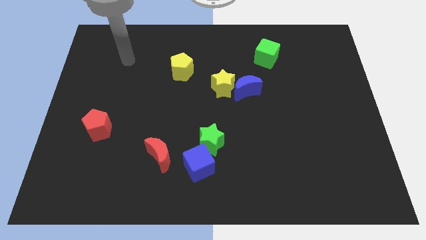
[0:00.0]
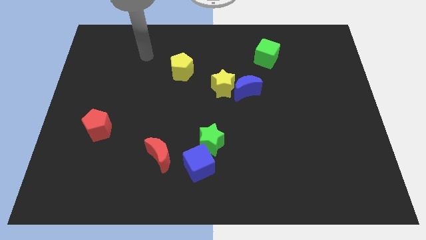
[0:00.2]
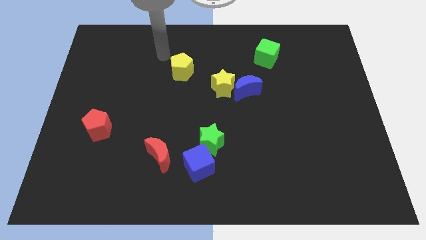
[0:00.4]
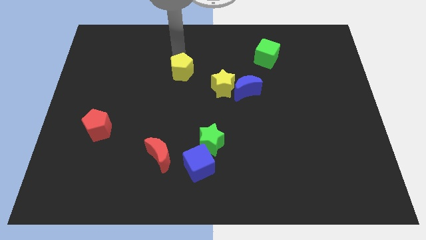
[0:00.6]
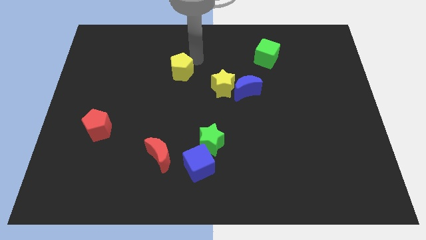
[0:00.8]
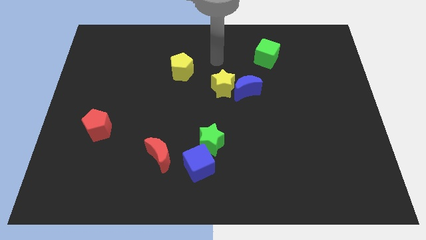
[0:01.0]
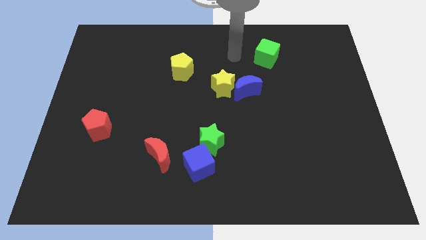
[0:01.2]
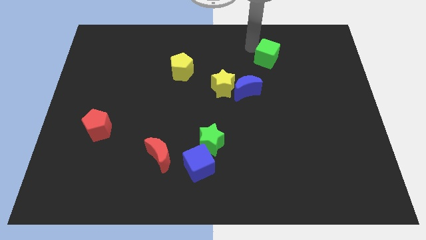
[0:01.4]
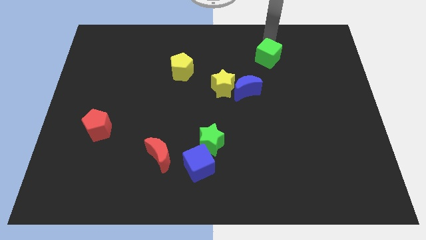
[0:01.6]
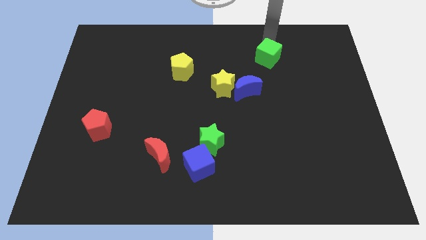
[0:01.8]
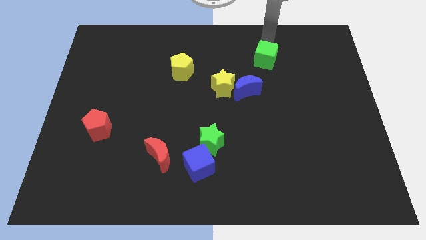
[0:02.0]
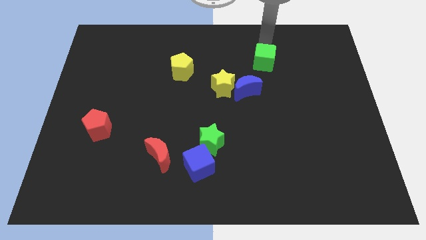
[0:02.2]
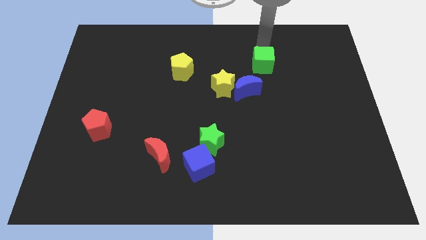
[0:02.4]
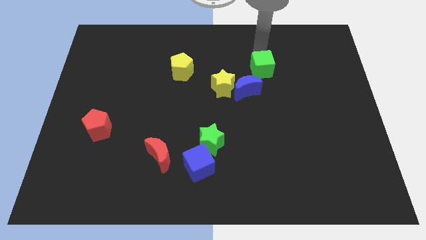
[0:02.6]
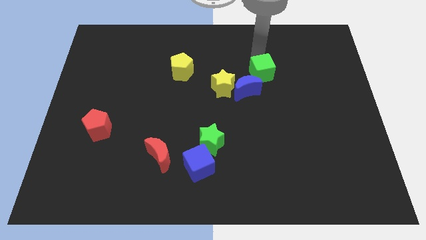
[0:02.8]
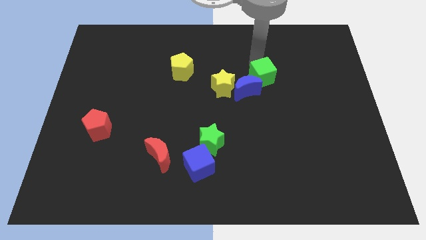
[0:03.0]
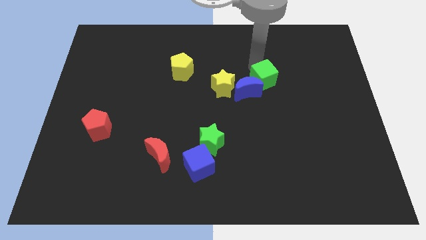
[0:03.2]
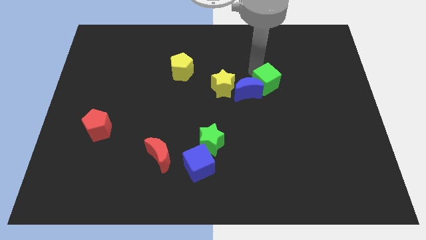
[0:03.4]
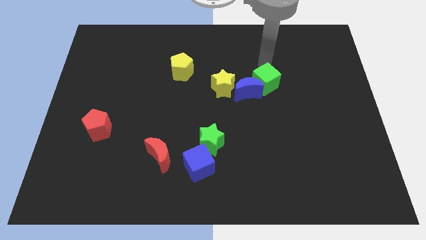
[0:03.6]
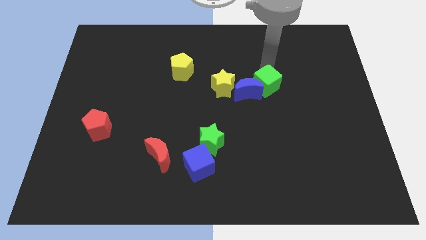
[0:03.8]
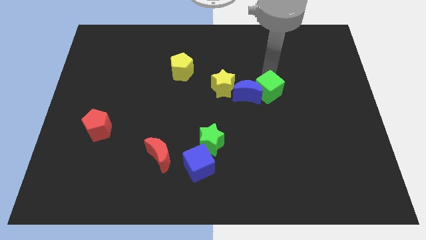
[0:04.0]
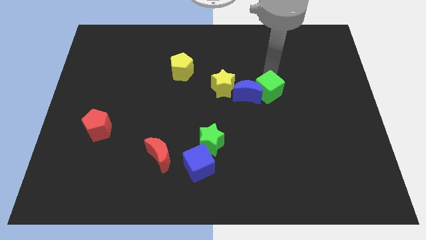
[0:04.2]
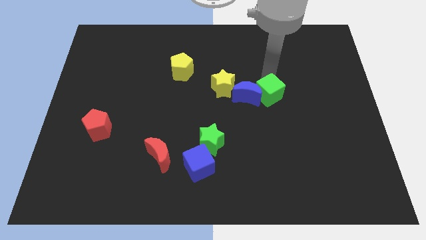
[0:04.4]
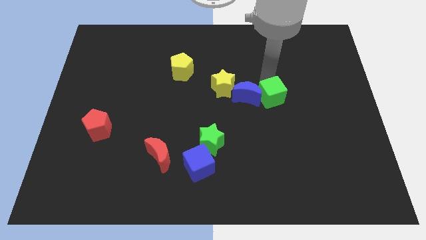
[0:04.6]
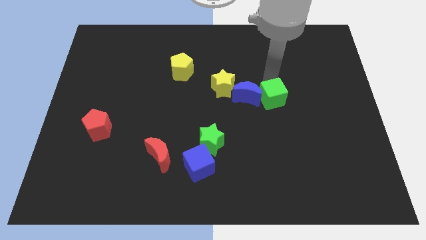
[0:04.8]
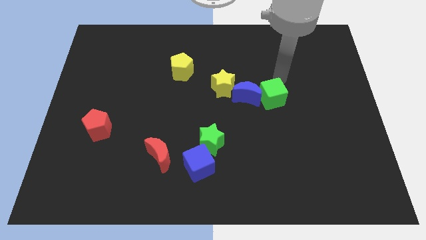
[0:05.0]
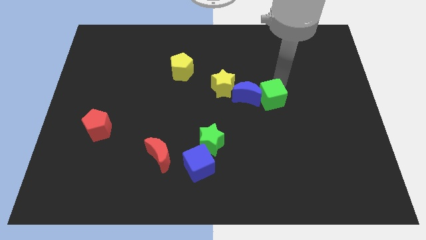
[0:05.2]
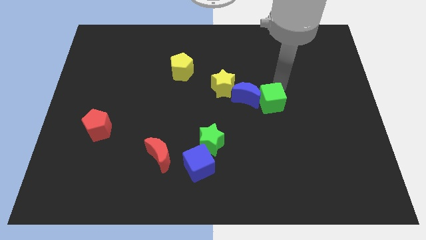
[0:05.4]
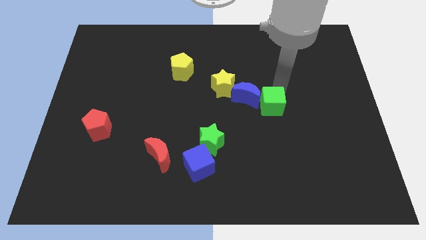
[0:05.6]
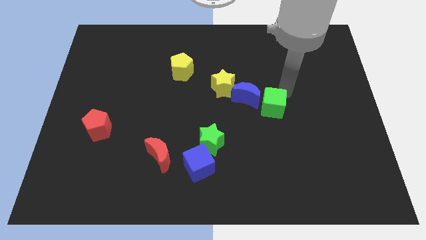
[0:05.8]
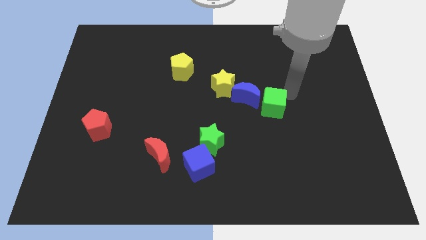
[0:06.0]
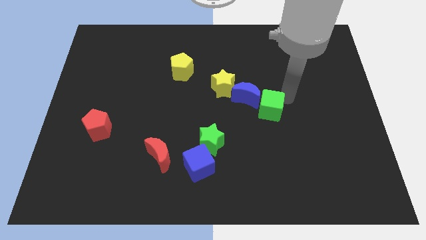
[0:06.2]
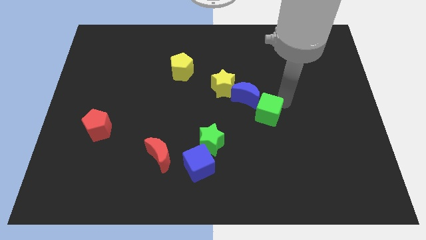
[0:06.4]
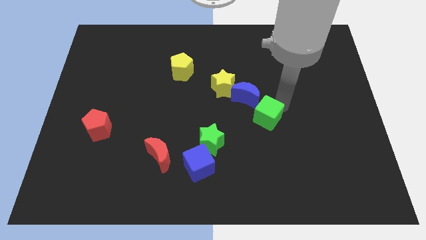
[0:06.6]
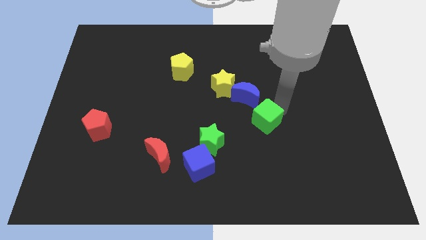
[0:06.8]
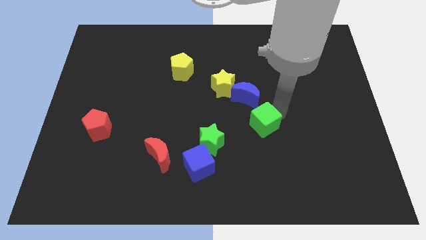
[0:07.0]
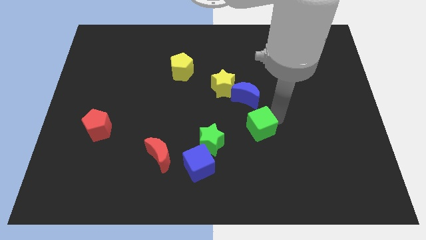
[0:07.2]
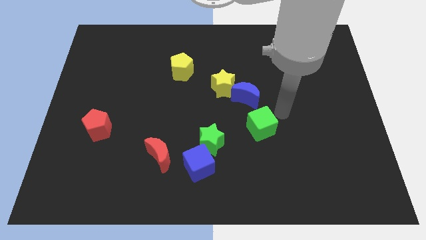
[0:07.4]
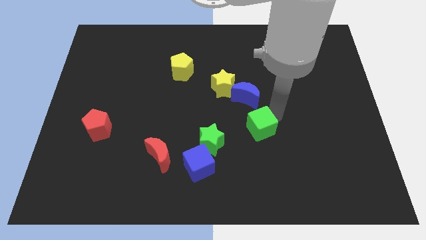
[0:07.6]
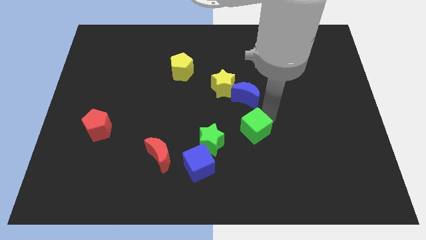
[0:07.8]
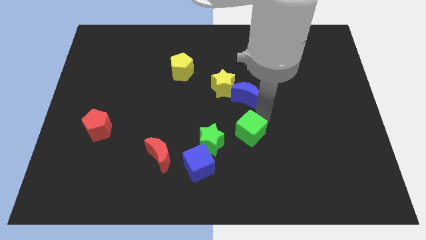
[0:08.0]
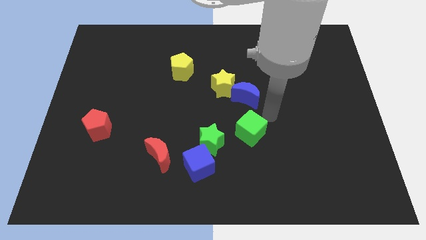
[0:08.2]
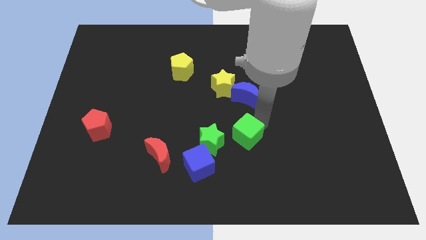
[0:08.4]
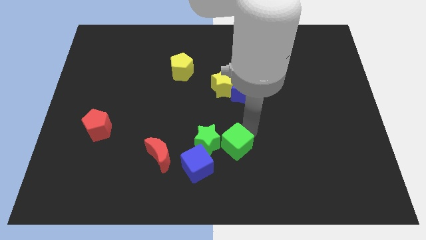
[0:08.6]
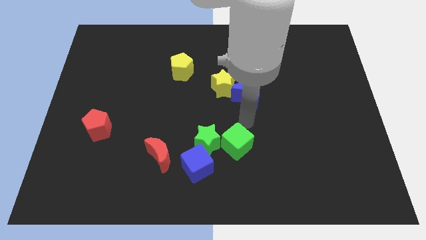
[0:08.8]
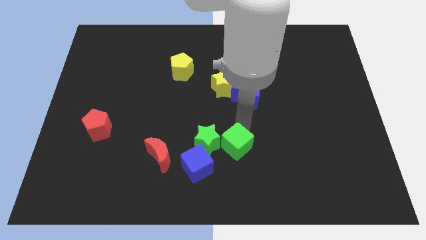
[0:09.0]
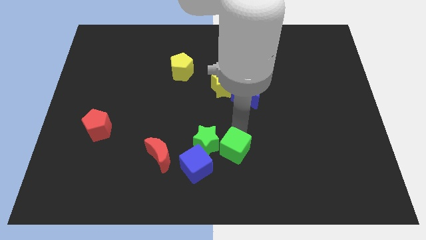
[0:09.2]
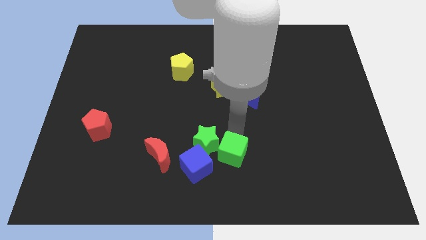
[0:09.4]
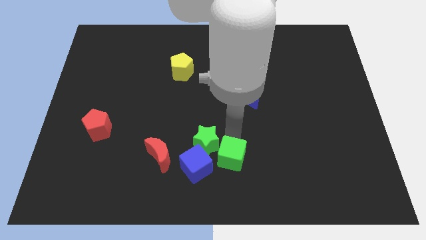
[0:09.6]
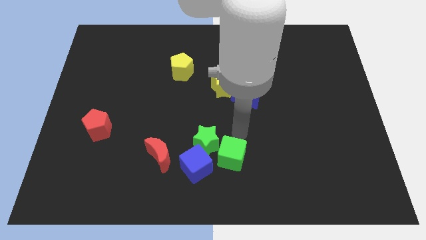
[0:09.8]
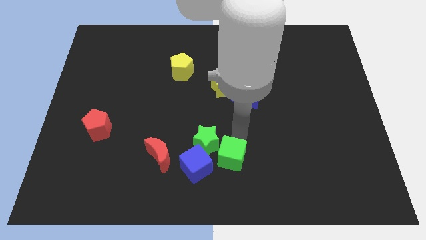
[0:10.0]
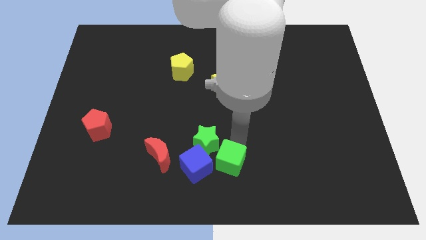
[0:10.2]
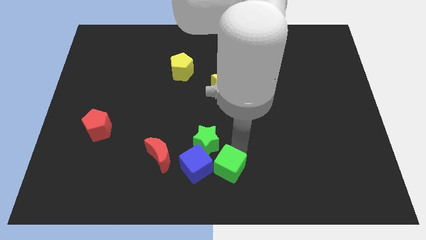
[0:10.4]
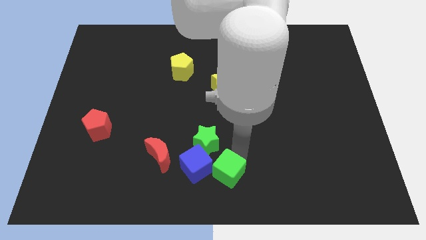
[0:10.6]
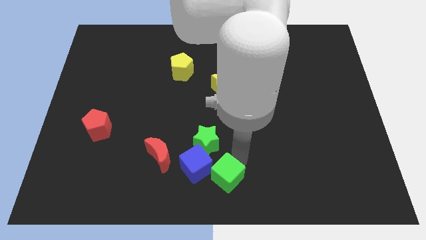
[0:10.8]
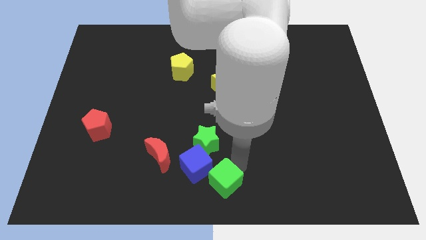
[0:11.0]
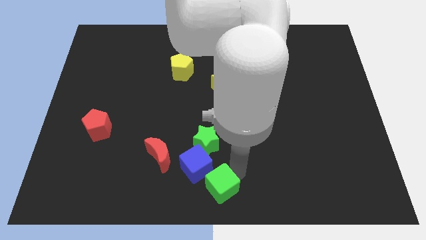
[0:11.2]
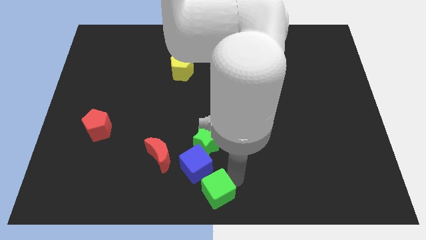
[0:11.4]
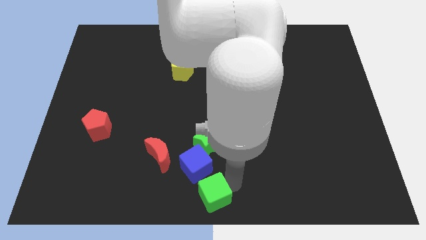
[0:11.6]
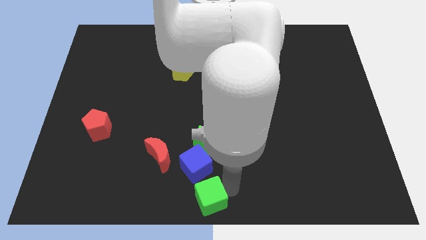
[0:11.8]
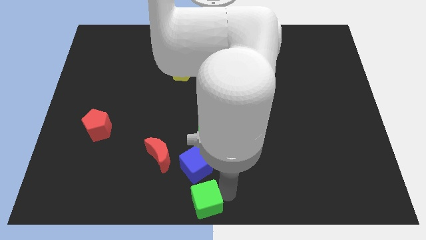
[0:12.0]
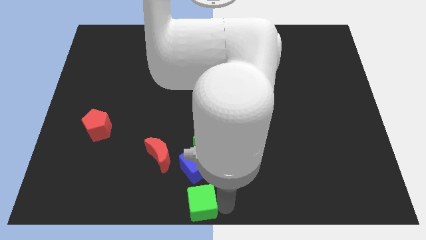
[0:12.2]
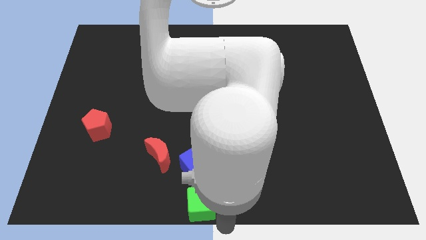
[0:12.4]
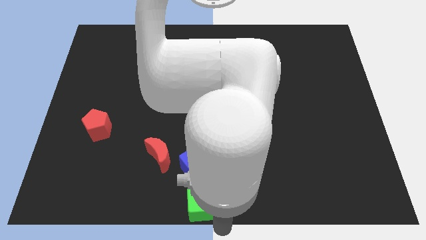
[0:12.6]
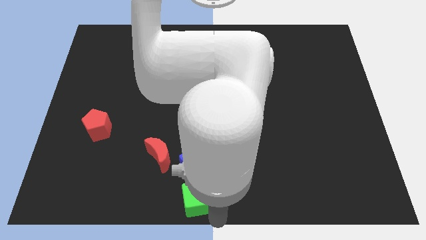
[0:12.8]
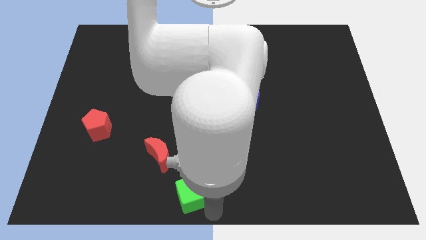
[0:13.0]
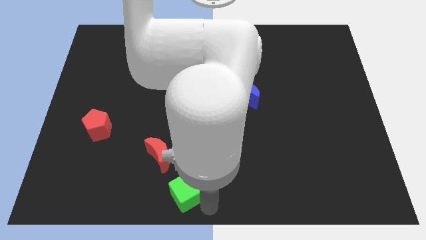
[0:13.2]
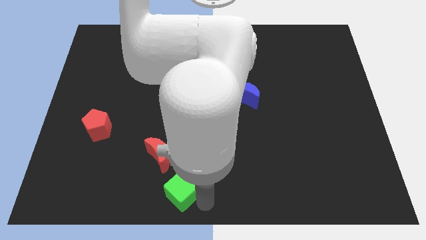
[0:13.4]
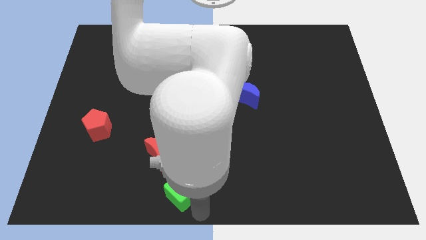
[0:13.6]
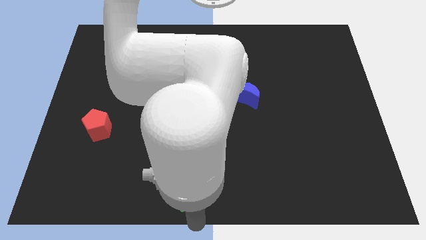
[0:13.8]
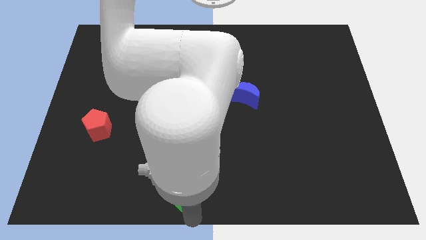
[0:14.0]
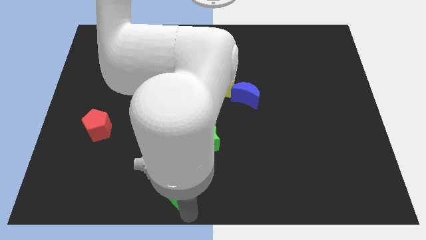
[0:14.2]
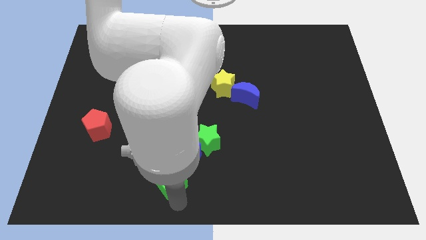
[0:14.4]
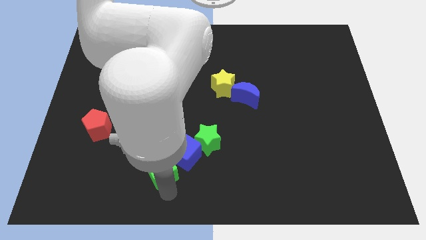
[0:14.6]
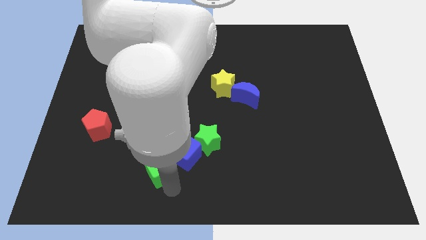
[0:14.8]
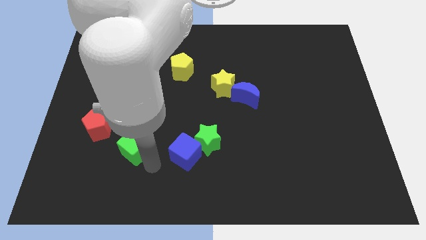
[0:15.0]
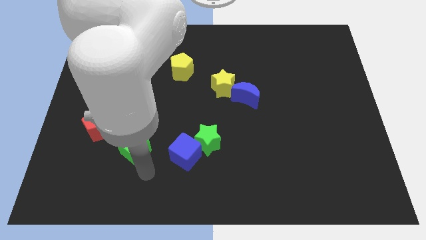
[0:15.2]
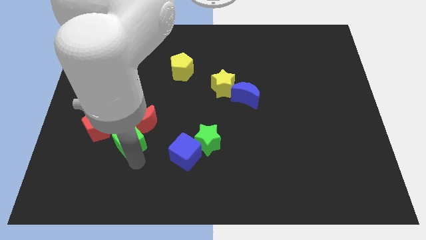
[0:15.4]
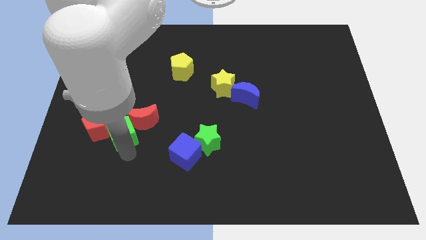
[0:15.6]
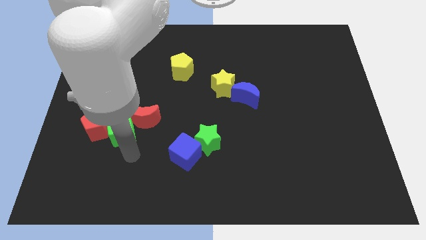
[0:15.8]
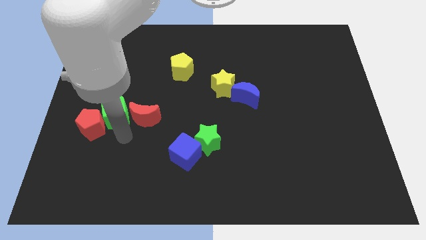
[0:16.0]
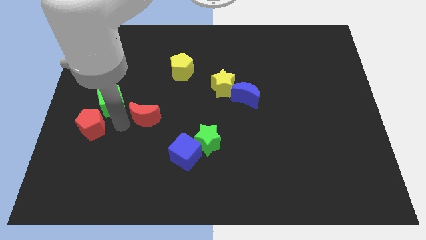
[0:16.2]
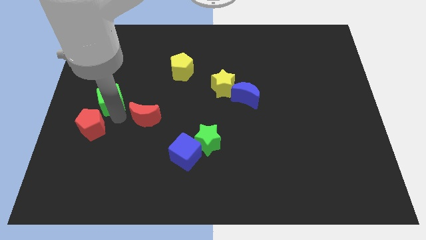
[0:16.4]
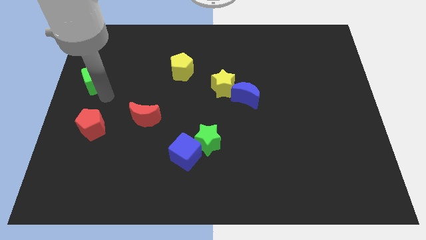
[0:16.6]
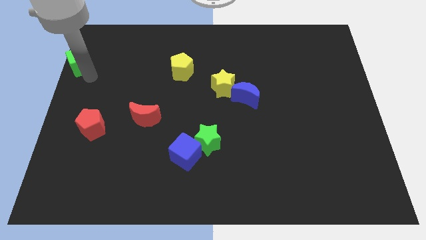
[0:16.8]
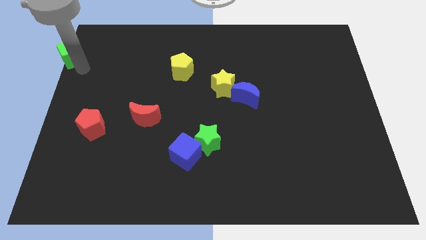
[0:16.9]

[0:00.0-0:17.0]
slide the green cube to the top left corner
